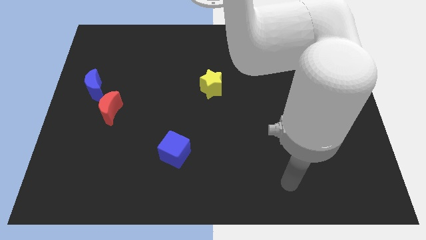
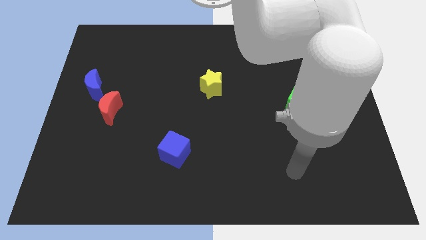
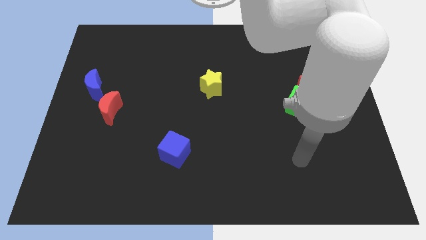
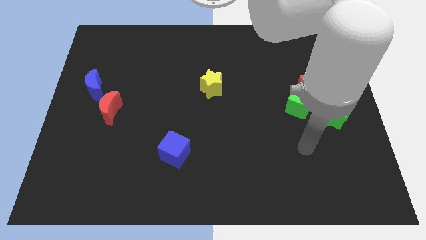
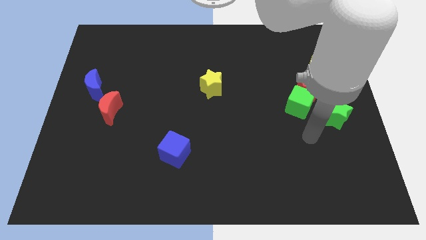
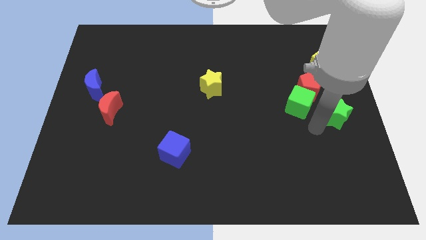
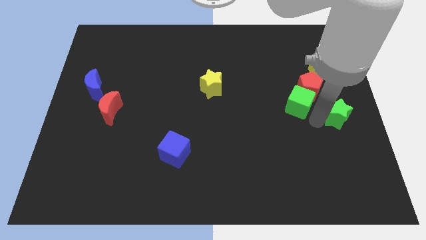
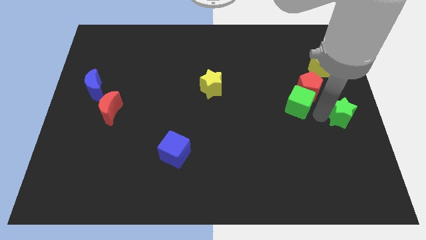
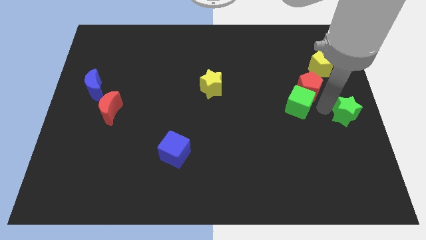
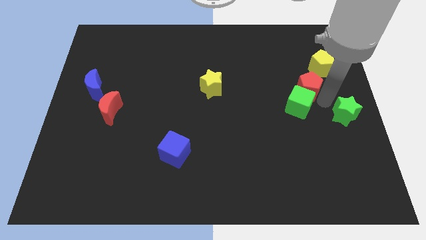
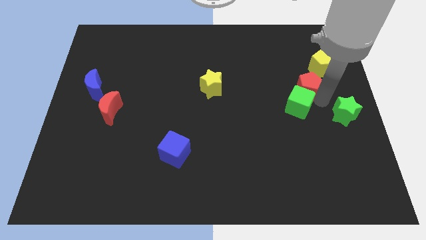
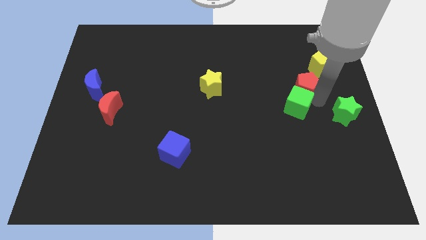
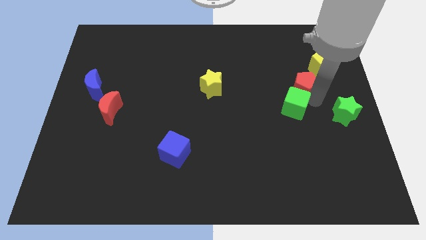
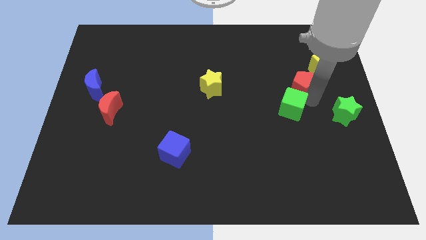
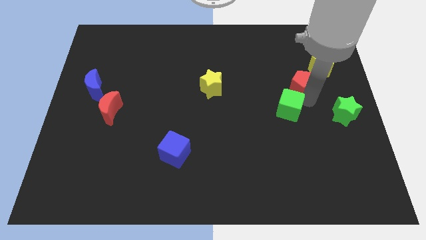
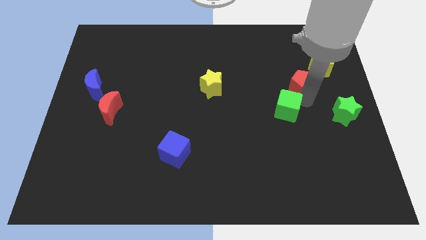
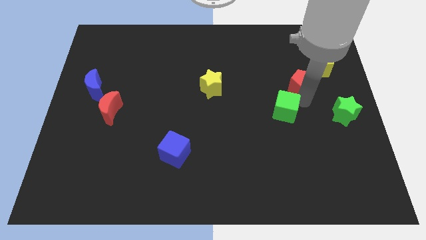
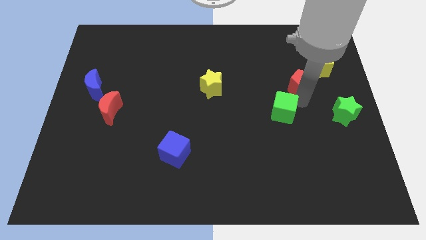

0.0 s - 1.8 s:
pull the green cube apart from the red pentagon and green star

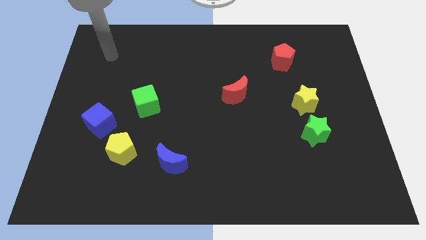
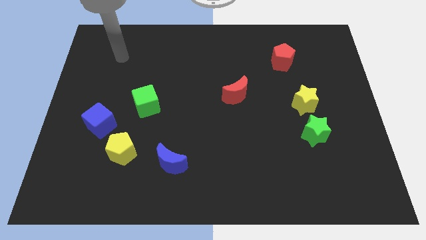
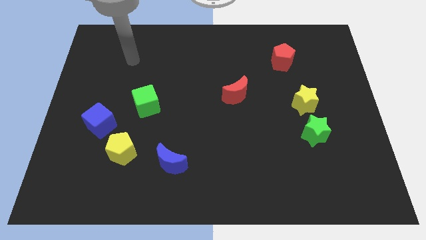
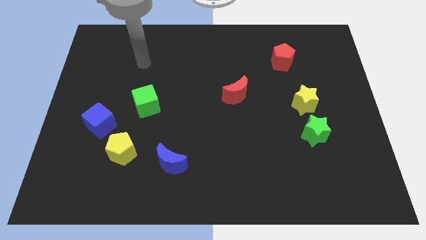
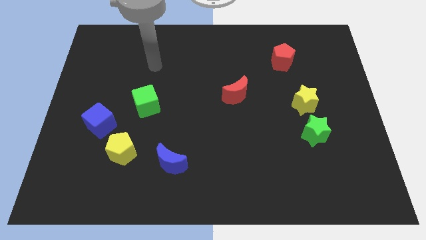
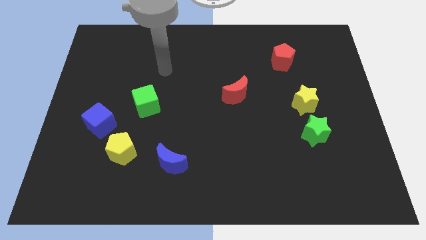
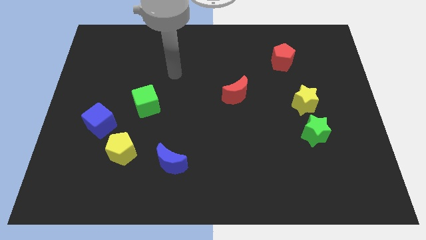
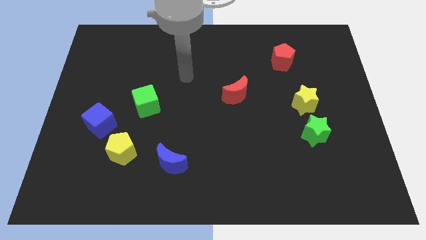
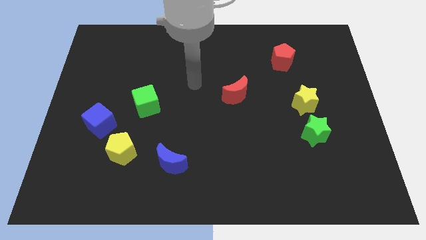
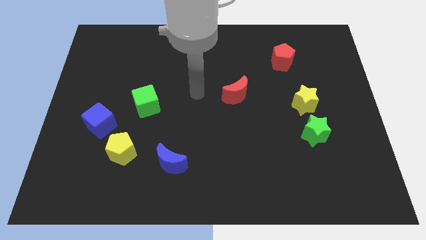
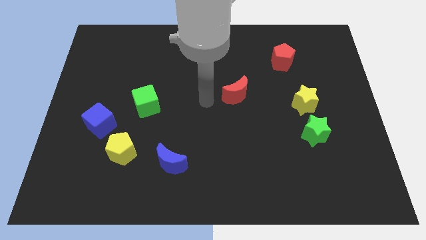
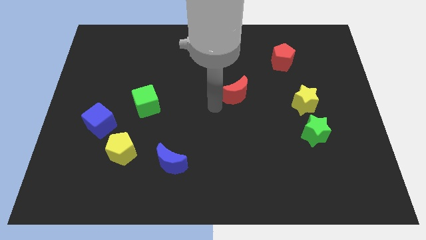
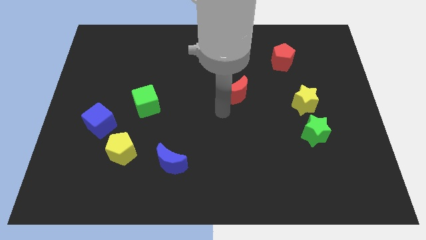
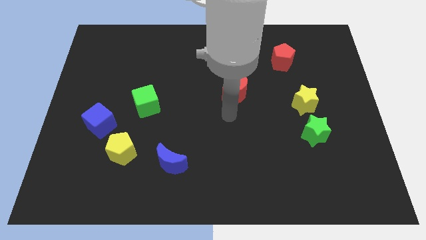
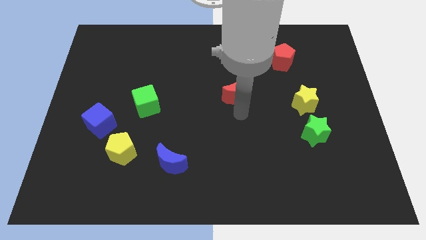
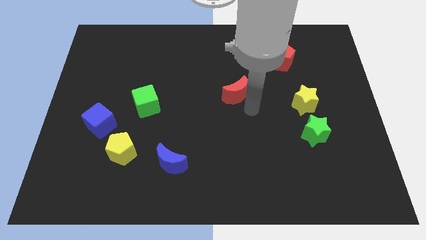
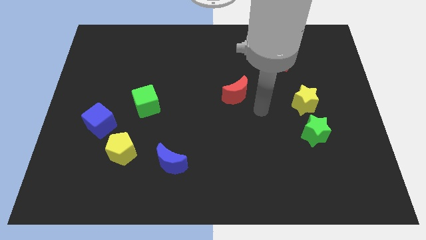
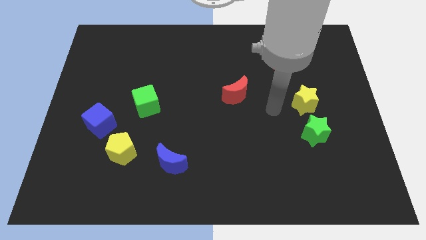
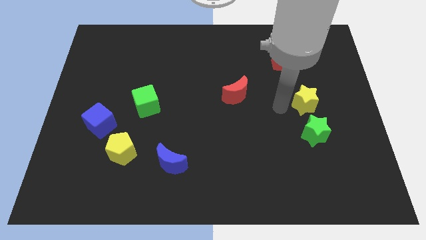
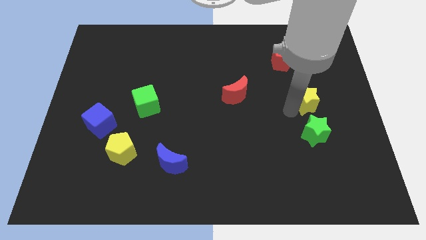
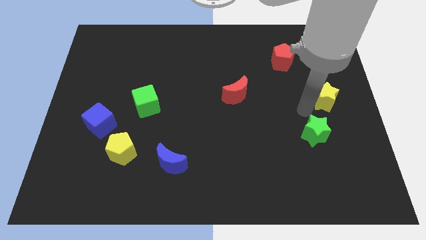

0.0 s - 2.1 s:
pull the green star apart from the yellow star

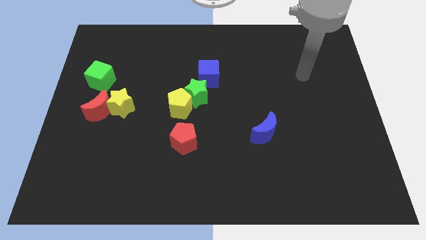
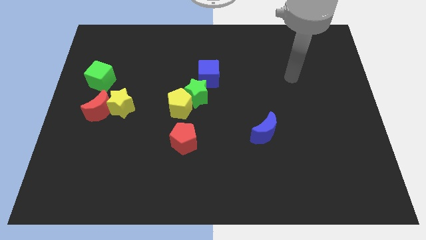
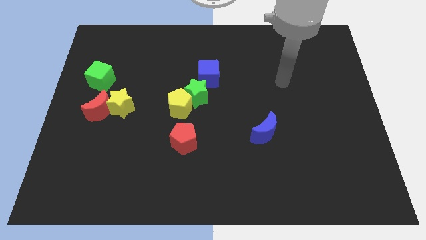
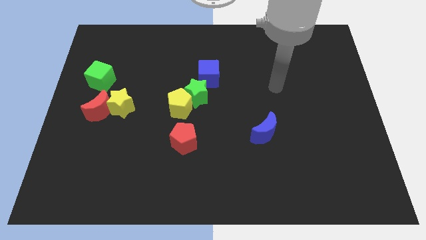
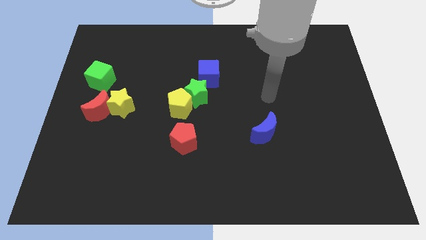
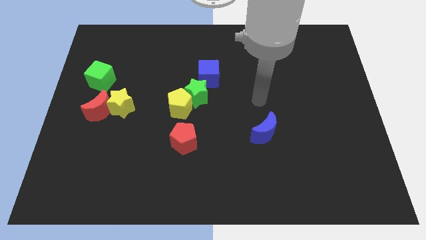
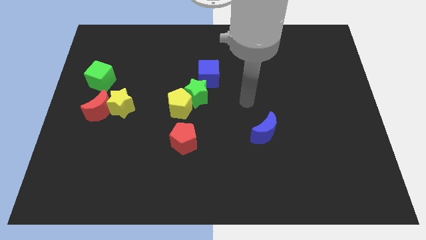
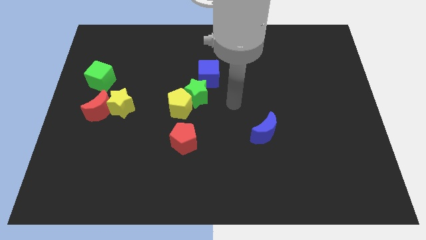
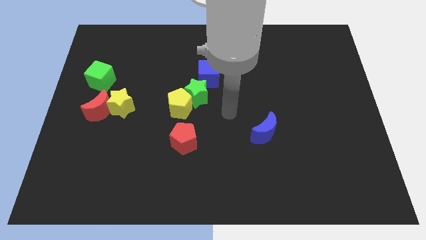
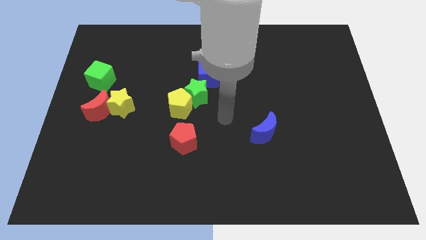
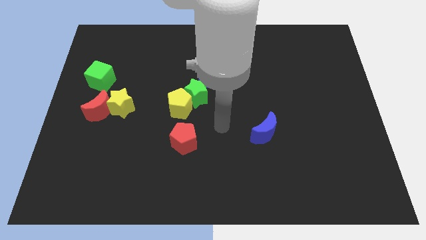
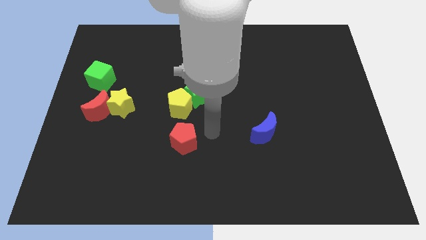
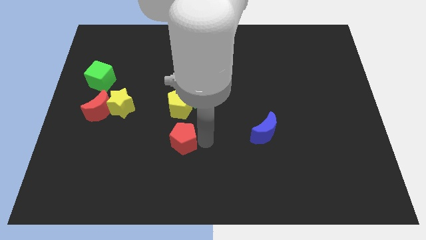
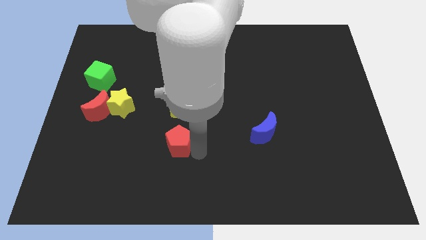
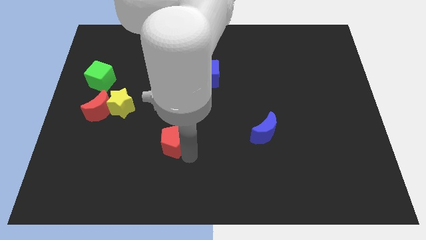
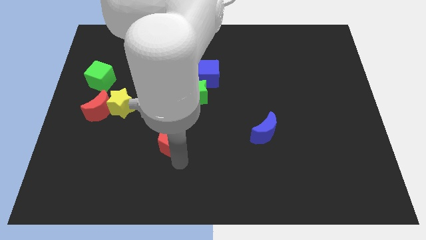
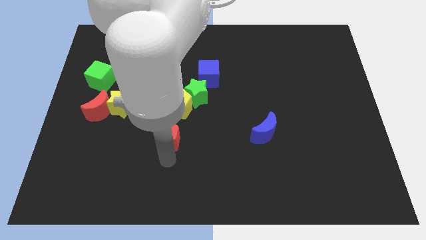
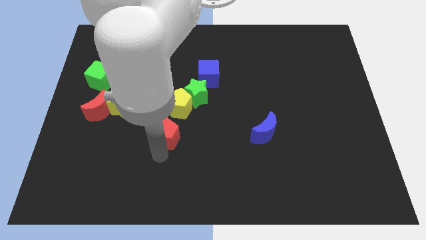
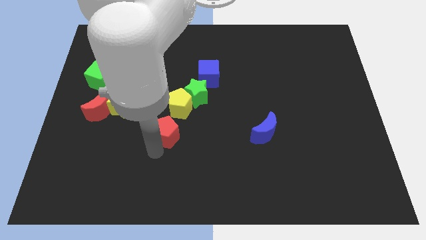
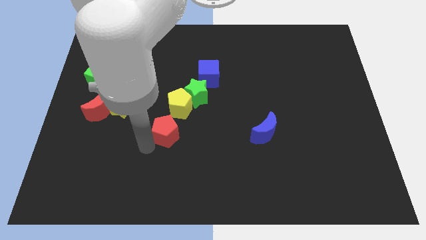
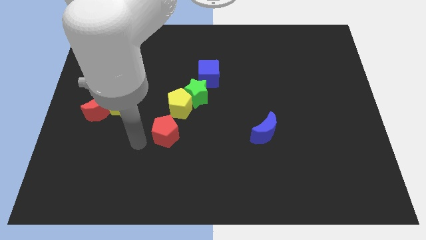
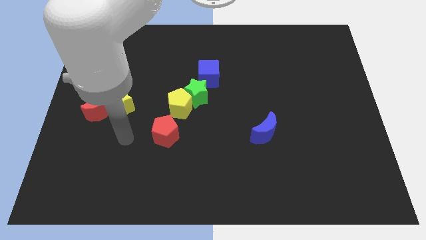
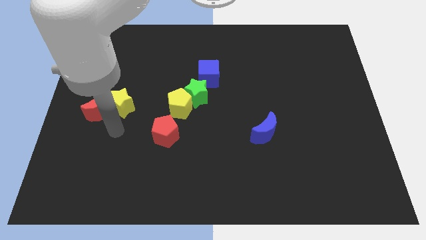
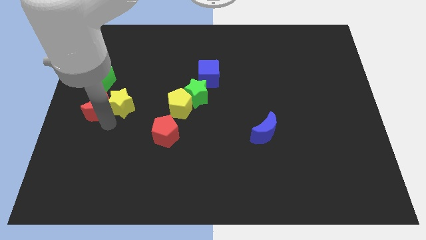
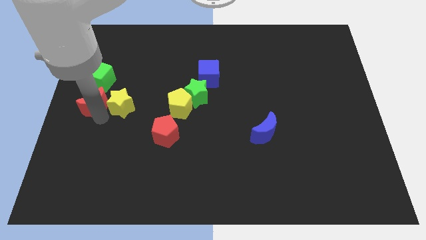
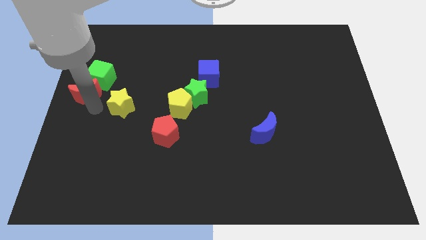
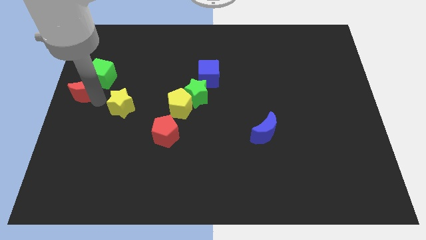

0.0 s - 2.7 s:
move the yellow star away from the red moon

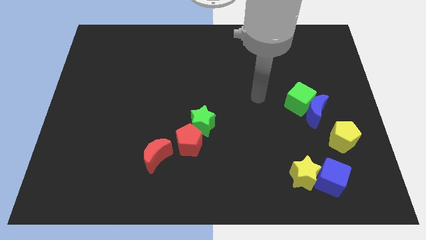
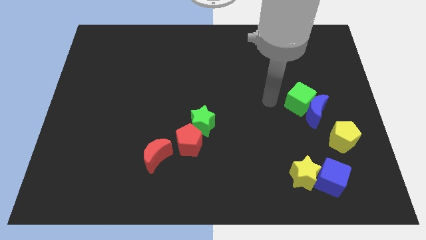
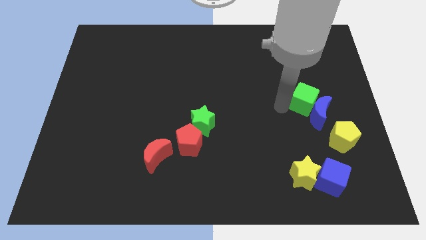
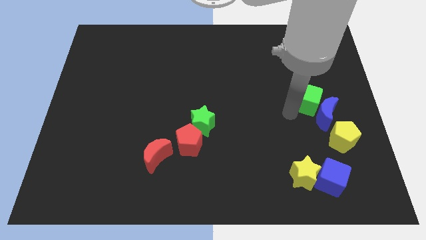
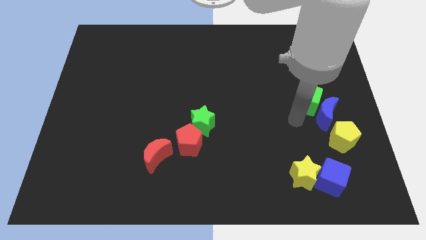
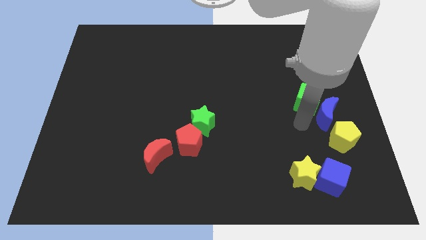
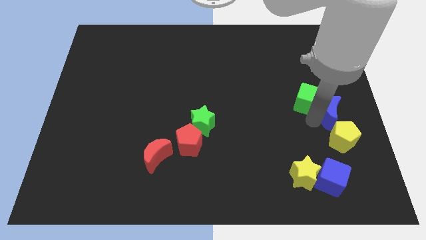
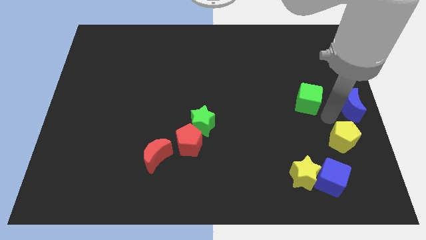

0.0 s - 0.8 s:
separate the green cube from the blue moon

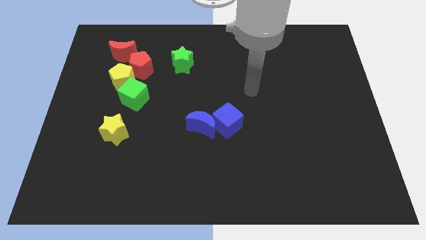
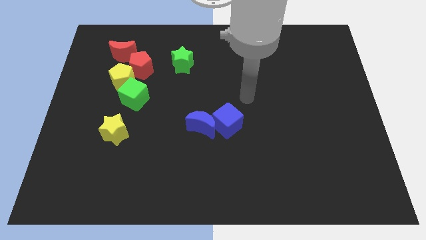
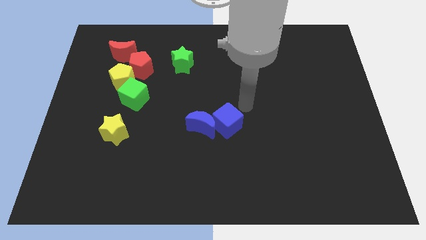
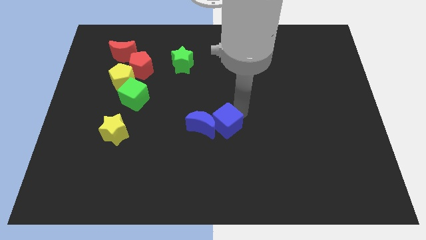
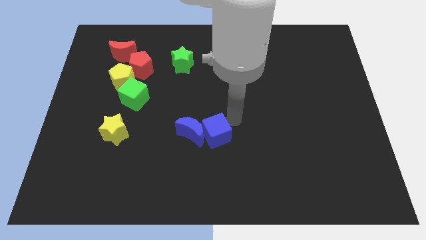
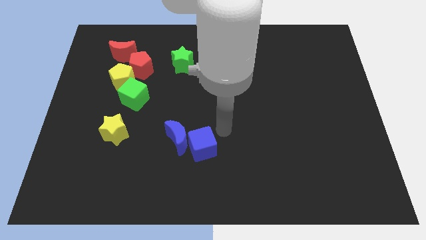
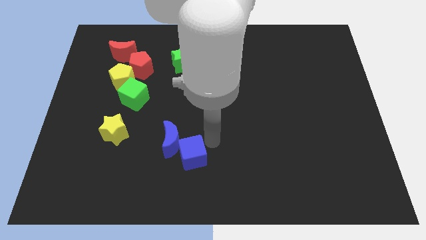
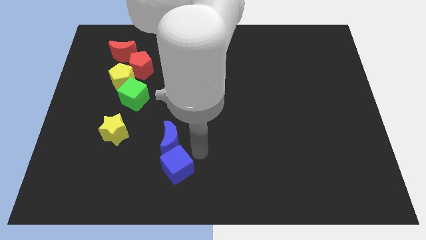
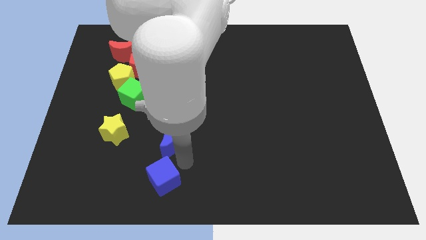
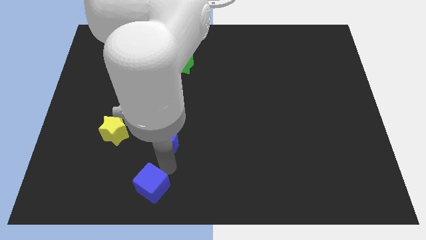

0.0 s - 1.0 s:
pull the blue moon apart from the blue cube

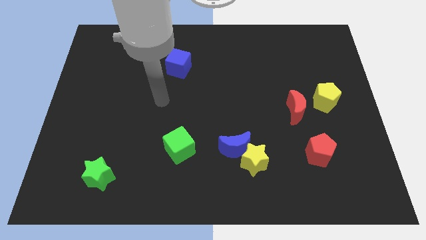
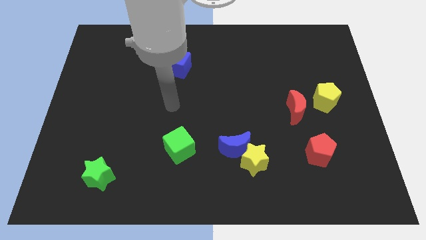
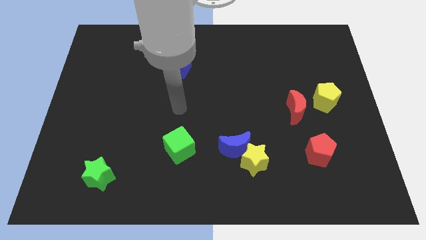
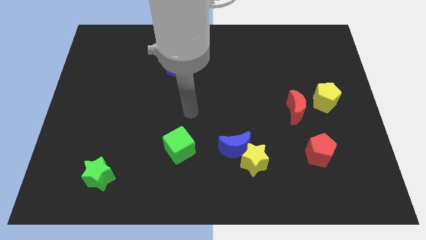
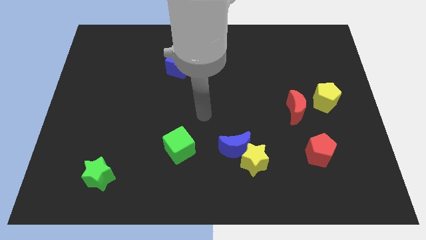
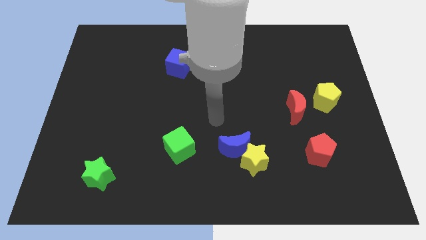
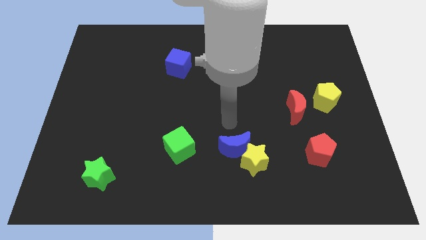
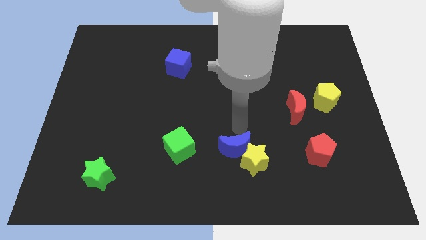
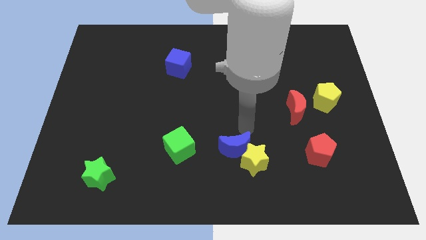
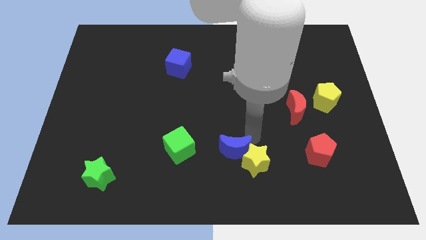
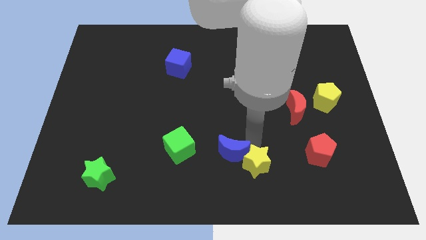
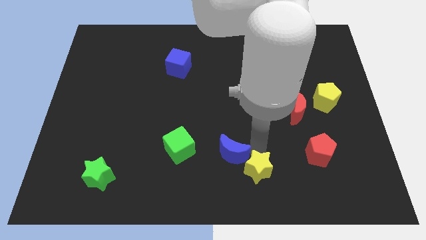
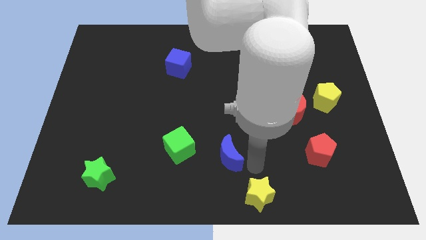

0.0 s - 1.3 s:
move the blue moon away from the yellow star
